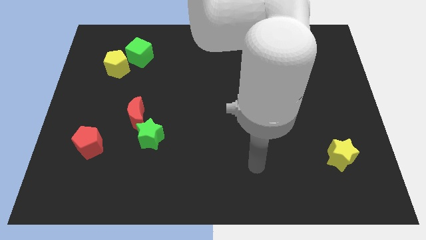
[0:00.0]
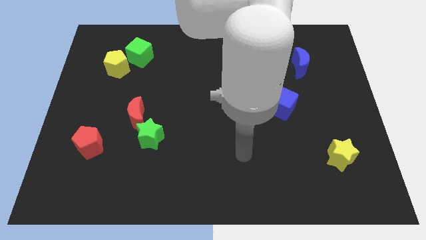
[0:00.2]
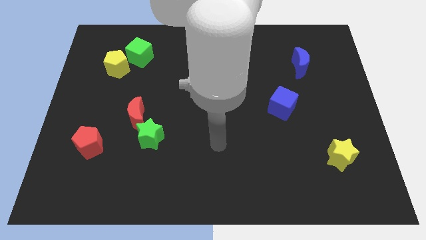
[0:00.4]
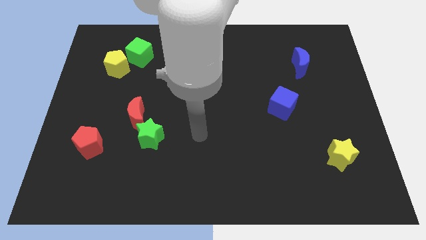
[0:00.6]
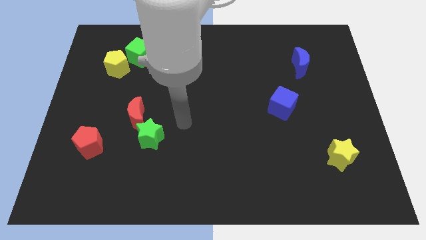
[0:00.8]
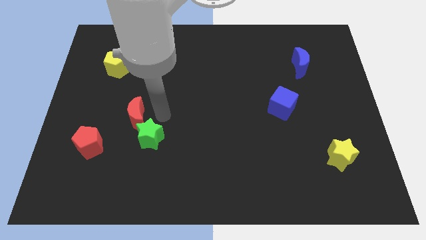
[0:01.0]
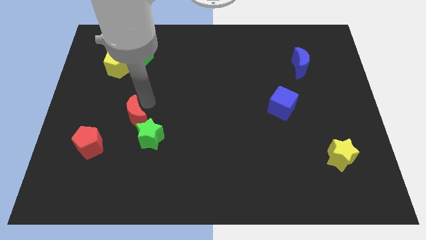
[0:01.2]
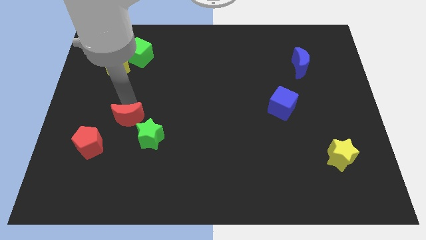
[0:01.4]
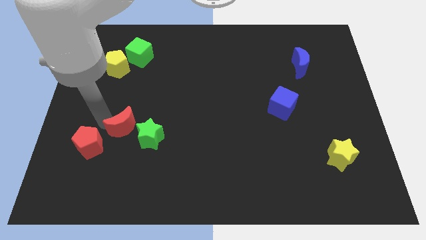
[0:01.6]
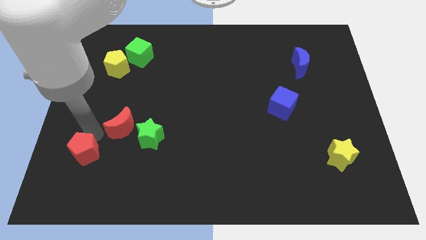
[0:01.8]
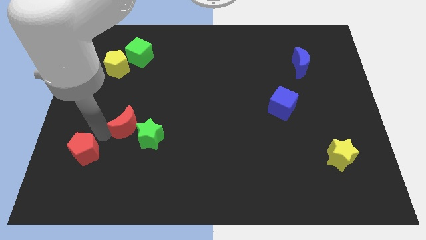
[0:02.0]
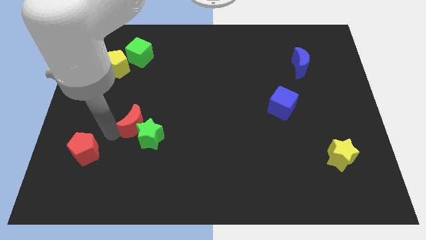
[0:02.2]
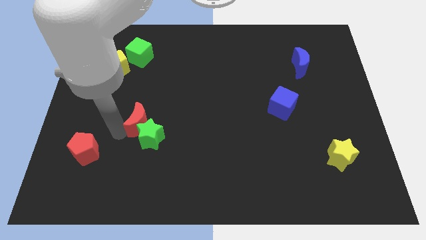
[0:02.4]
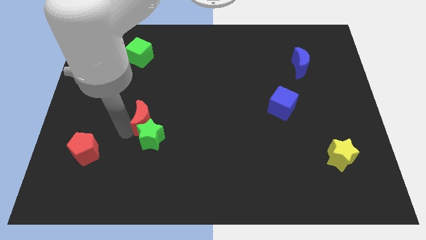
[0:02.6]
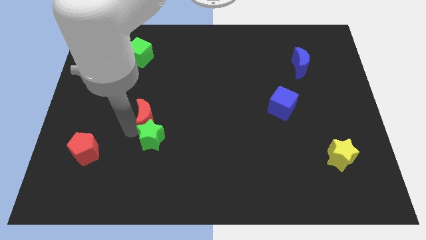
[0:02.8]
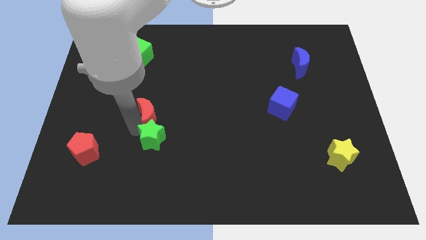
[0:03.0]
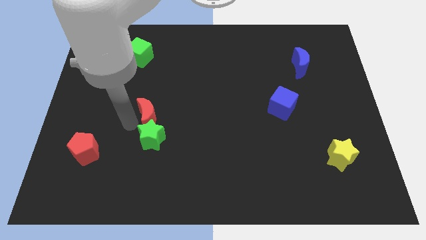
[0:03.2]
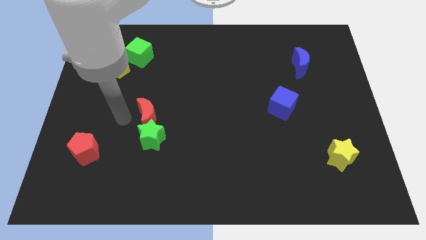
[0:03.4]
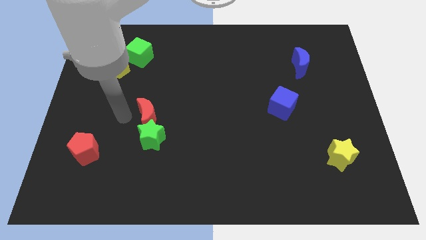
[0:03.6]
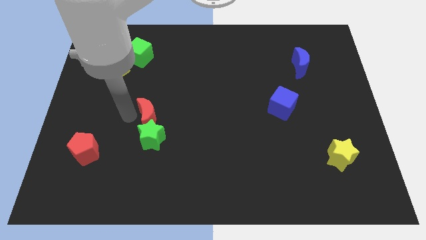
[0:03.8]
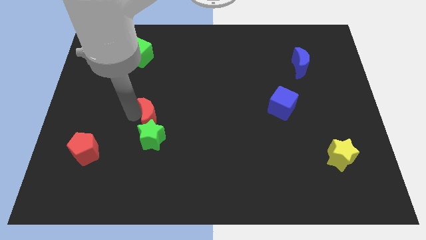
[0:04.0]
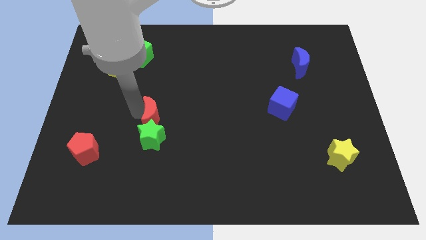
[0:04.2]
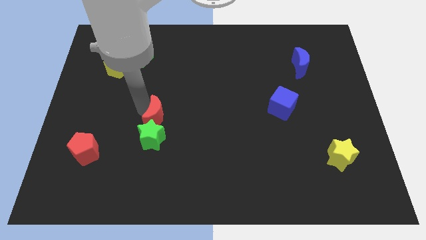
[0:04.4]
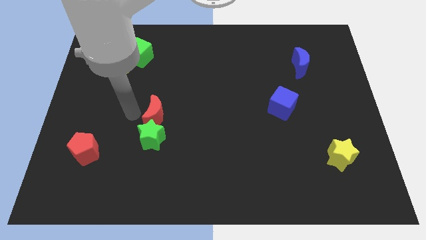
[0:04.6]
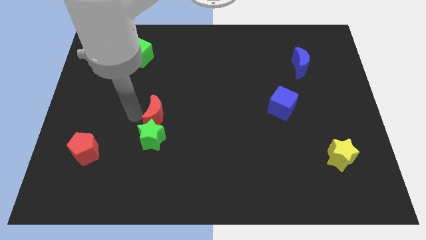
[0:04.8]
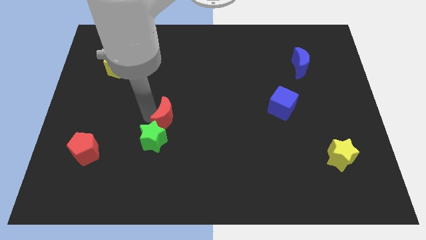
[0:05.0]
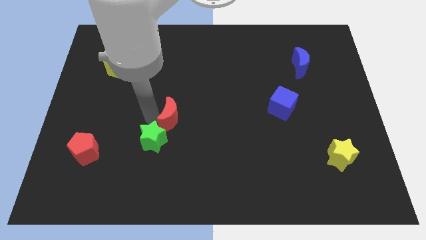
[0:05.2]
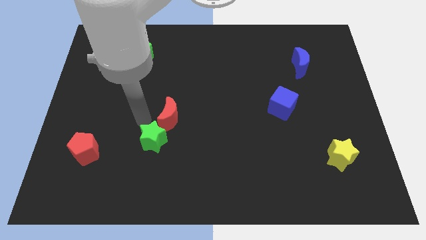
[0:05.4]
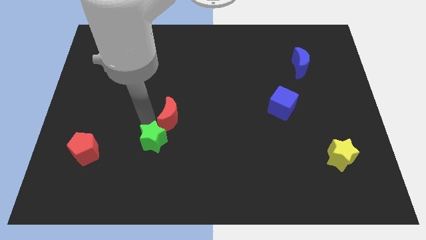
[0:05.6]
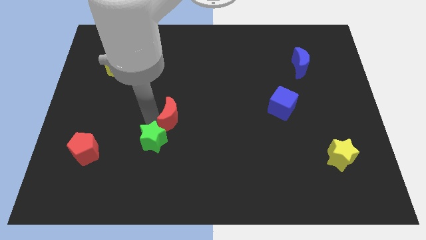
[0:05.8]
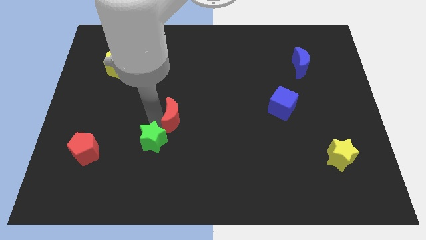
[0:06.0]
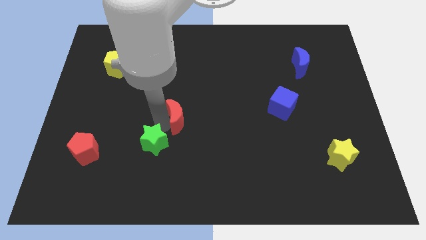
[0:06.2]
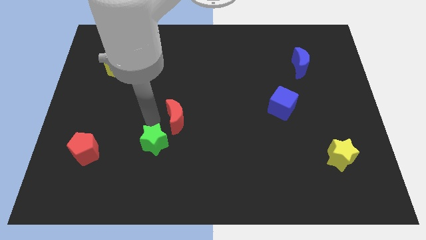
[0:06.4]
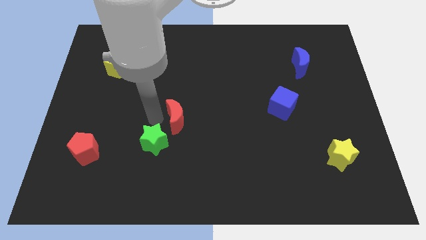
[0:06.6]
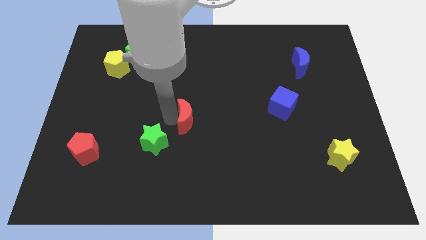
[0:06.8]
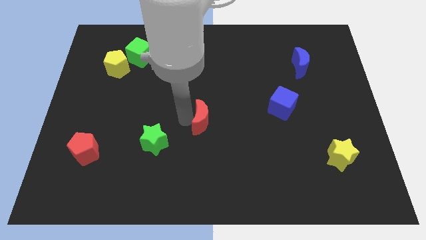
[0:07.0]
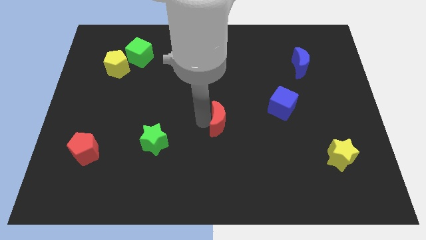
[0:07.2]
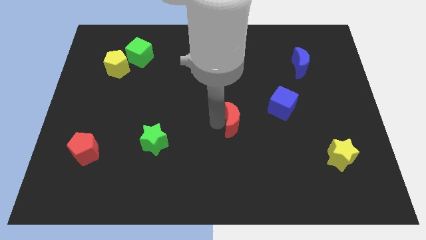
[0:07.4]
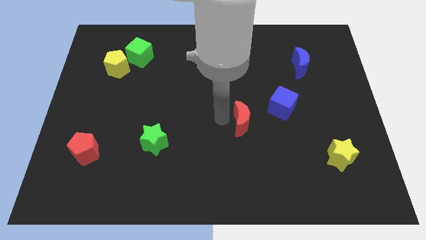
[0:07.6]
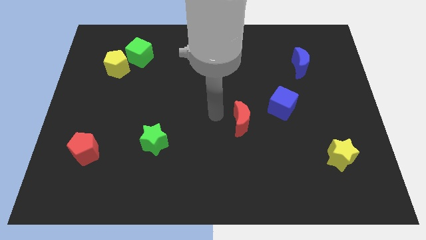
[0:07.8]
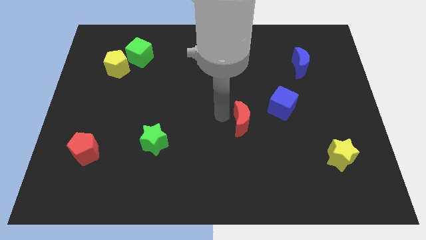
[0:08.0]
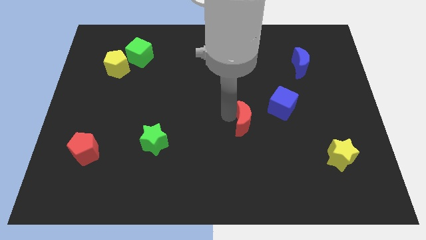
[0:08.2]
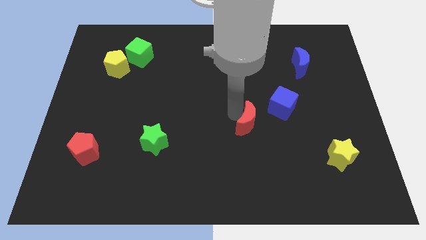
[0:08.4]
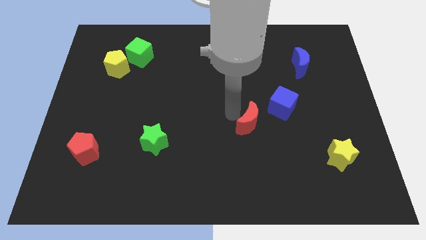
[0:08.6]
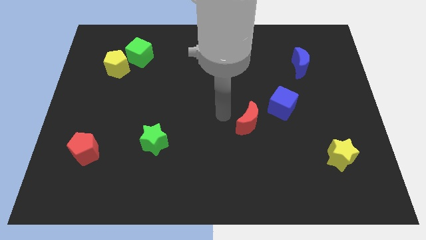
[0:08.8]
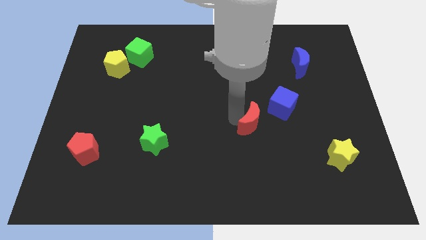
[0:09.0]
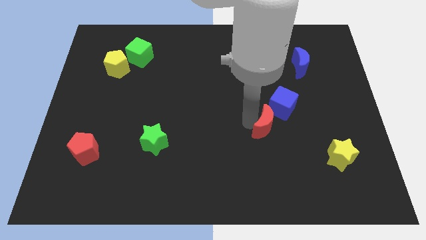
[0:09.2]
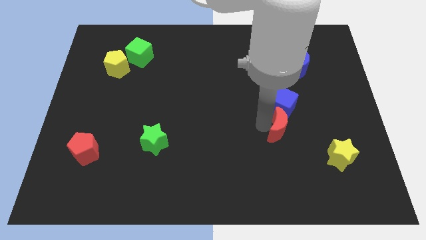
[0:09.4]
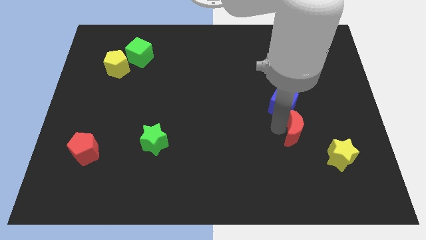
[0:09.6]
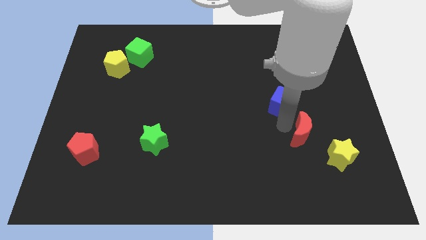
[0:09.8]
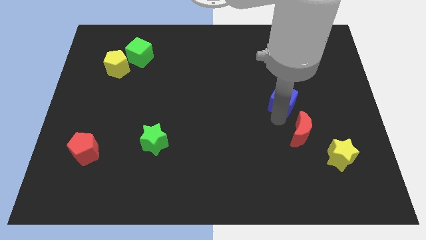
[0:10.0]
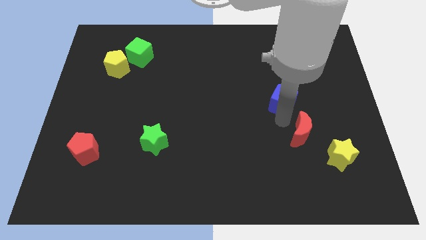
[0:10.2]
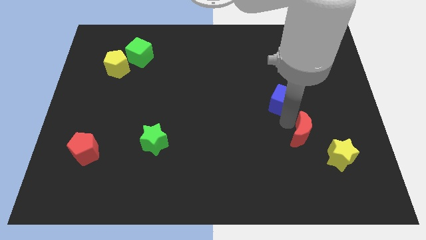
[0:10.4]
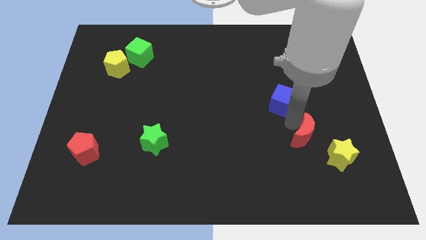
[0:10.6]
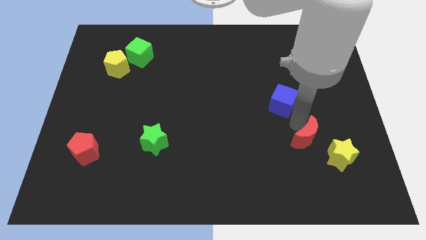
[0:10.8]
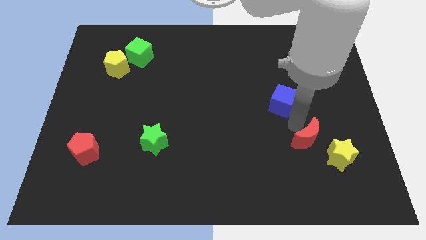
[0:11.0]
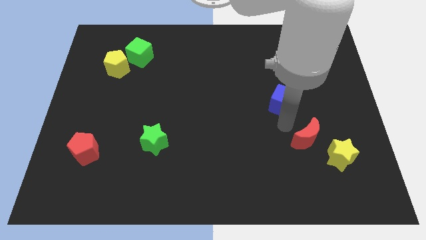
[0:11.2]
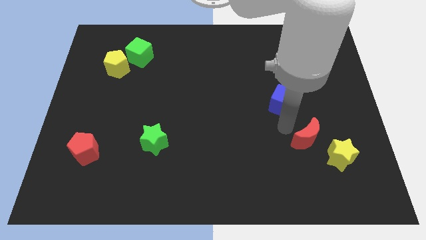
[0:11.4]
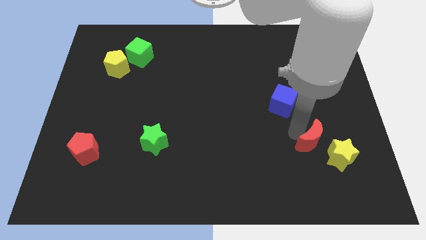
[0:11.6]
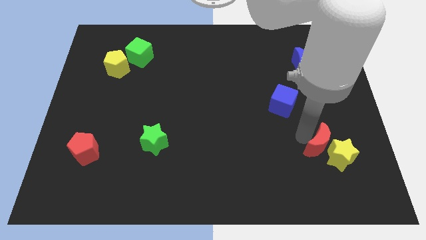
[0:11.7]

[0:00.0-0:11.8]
slide the red moon next to the yellow star

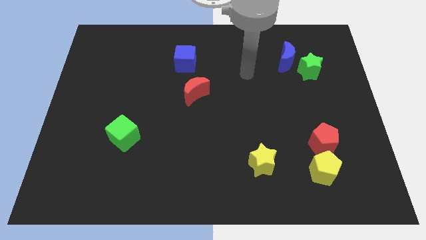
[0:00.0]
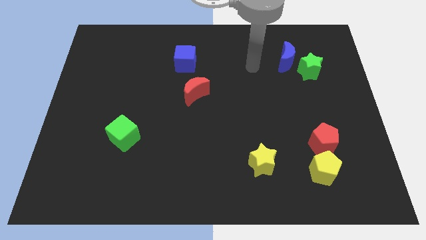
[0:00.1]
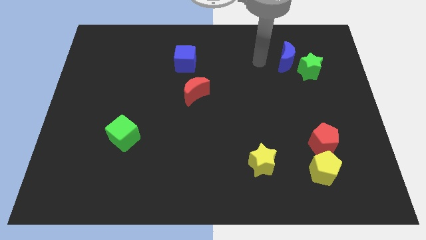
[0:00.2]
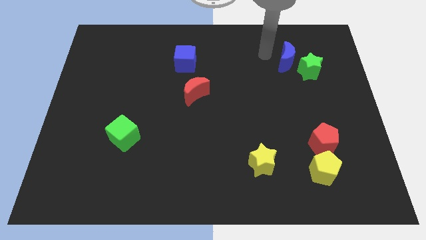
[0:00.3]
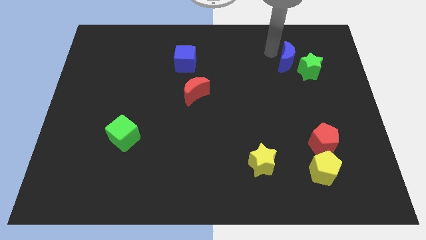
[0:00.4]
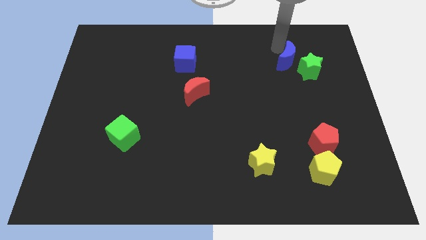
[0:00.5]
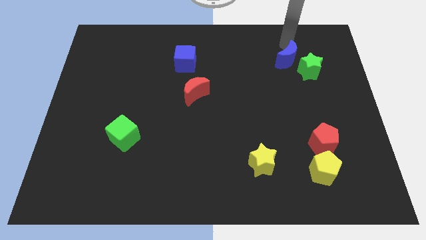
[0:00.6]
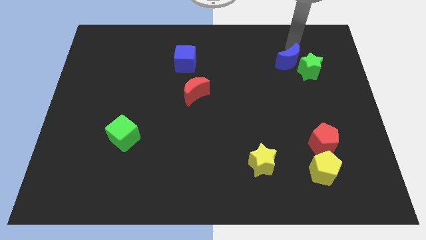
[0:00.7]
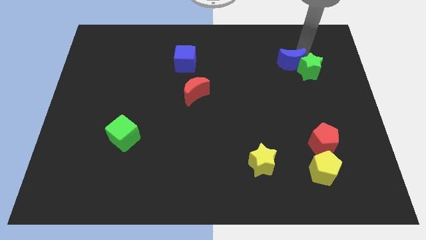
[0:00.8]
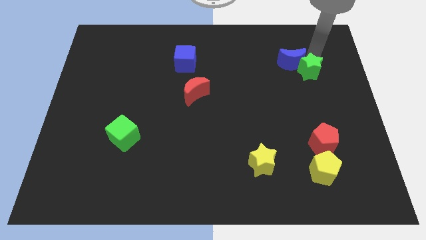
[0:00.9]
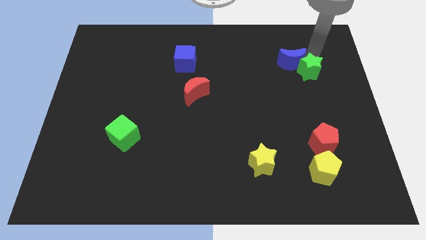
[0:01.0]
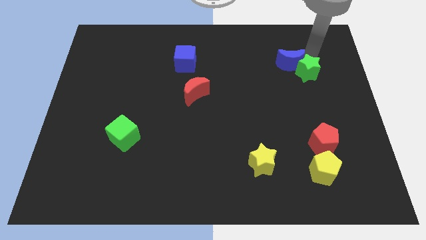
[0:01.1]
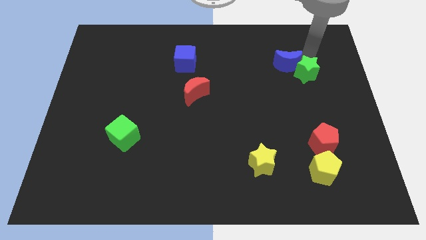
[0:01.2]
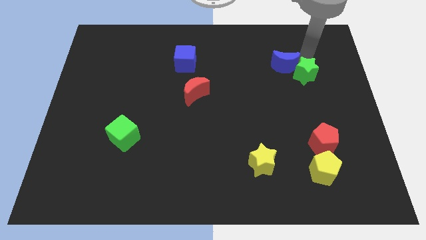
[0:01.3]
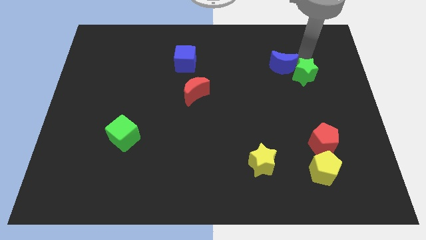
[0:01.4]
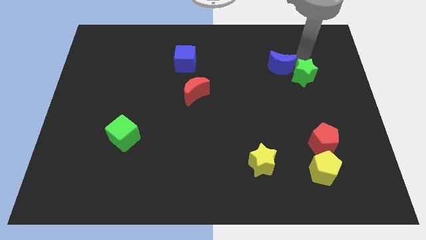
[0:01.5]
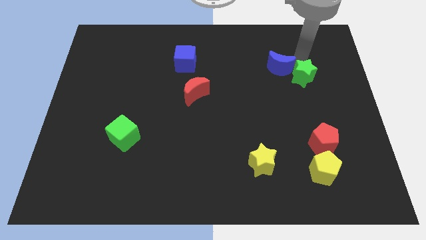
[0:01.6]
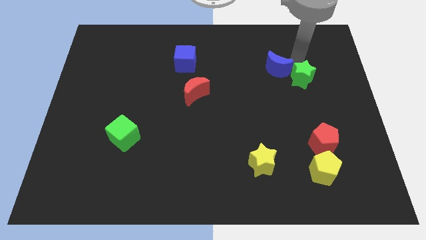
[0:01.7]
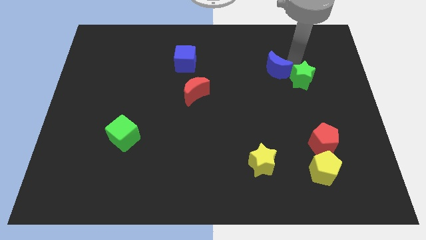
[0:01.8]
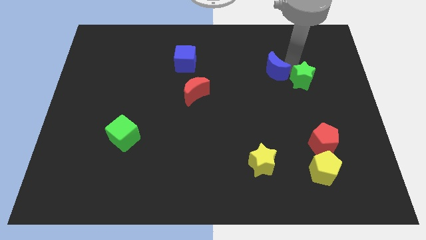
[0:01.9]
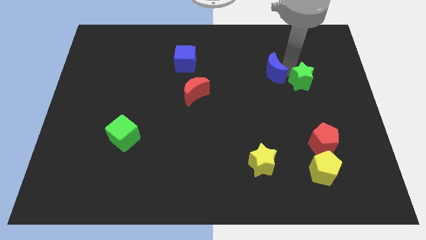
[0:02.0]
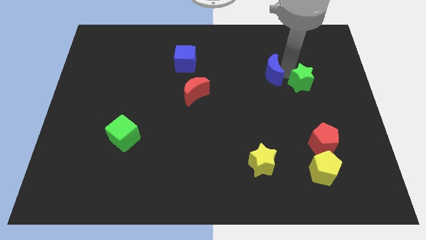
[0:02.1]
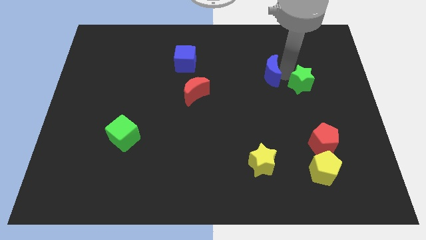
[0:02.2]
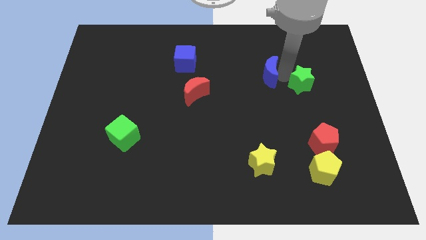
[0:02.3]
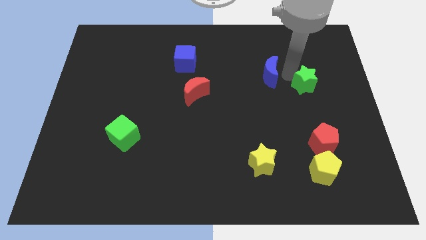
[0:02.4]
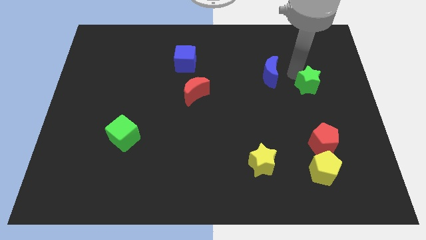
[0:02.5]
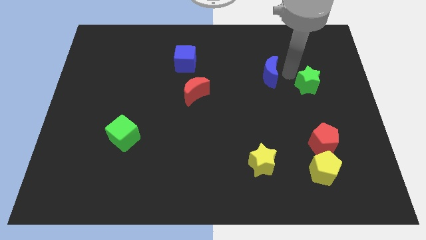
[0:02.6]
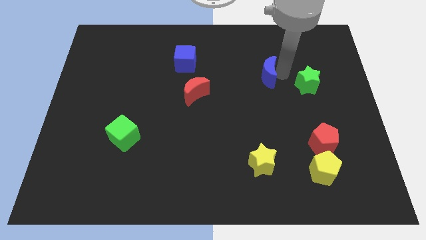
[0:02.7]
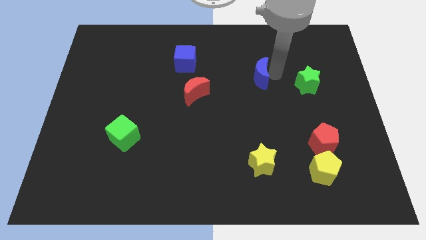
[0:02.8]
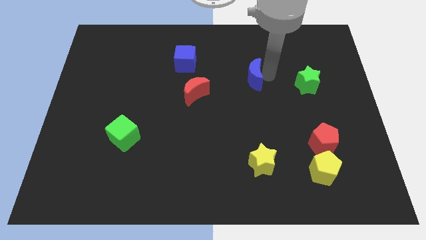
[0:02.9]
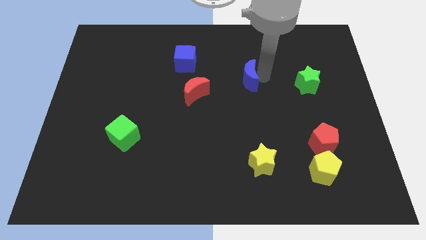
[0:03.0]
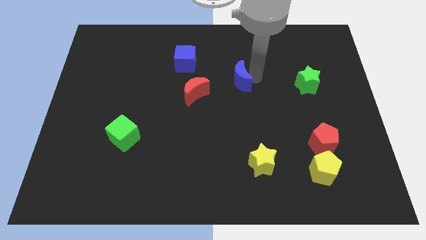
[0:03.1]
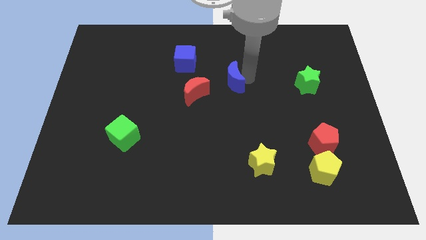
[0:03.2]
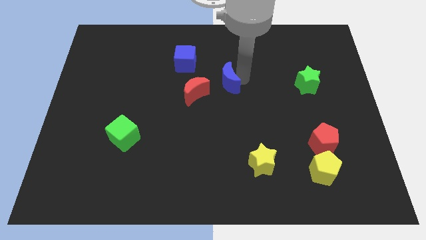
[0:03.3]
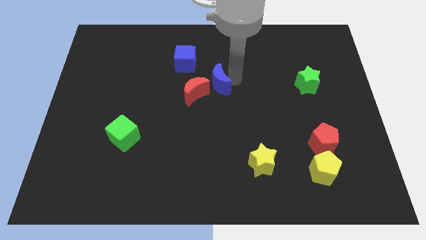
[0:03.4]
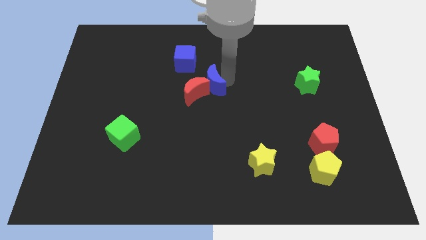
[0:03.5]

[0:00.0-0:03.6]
push the blue moon next to the red moon
